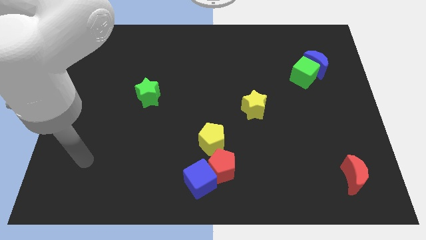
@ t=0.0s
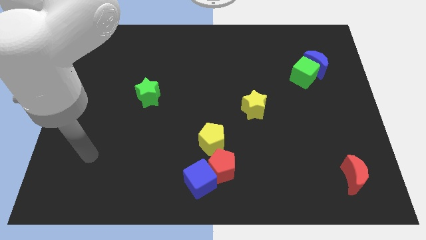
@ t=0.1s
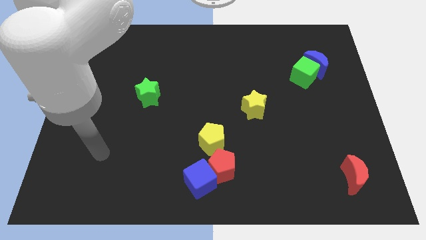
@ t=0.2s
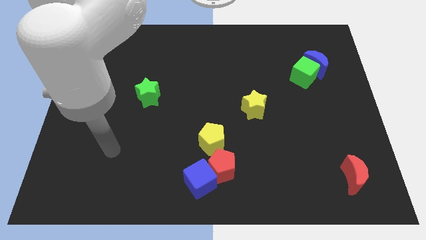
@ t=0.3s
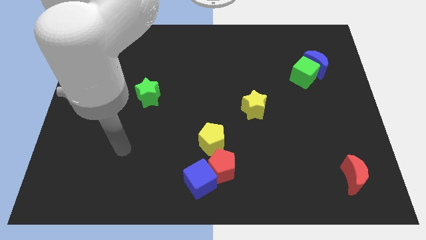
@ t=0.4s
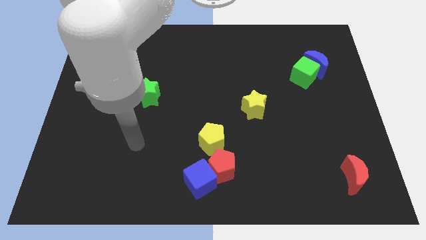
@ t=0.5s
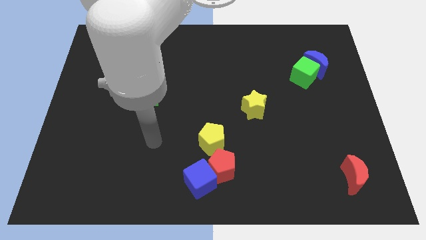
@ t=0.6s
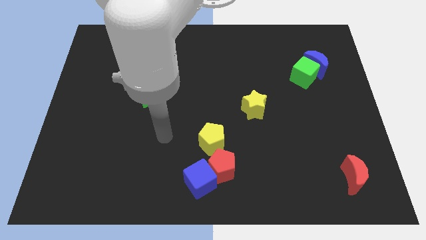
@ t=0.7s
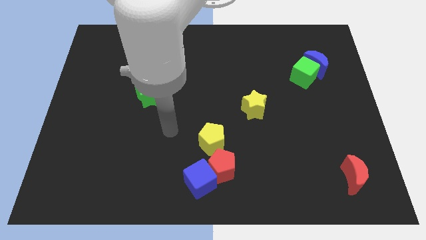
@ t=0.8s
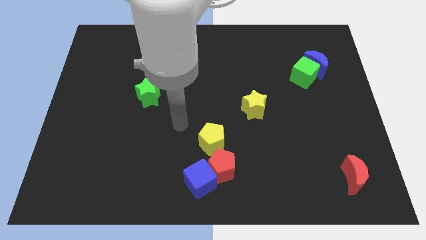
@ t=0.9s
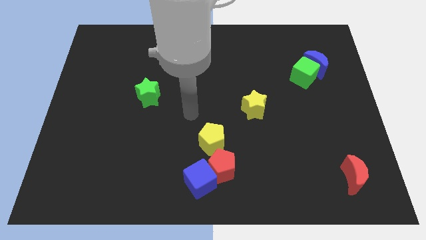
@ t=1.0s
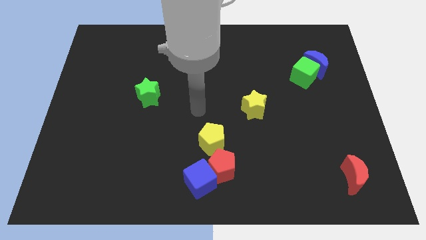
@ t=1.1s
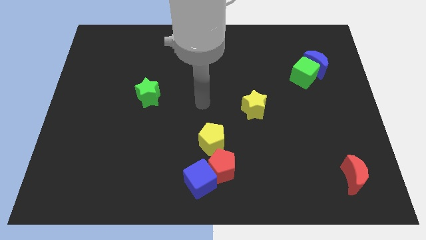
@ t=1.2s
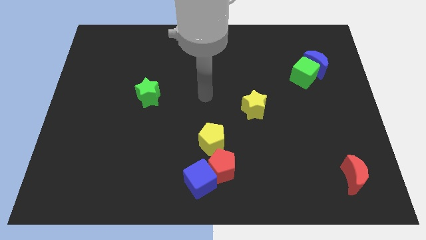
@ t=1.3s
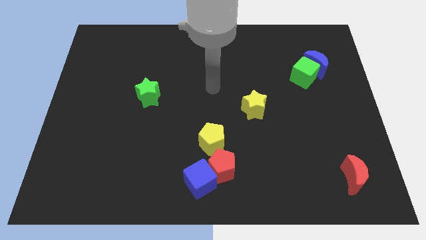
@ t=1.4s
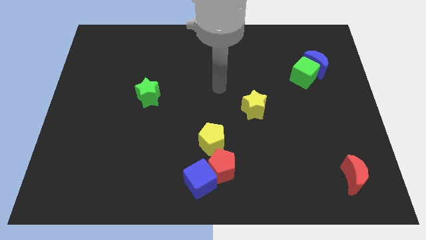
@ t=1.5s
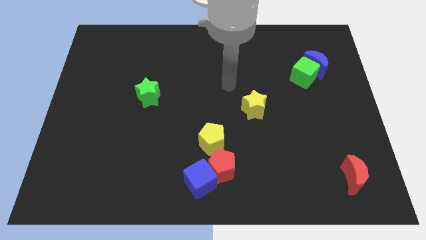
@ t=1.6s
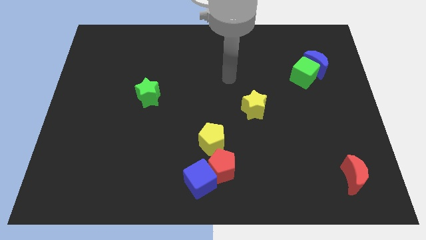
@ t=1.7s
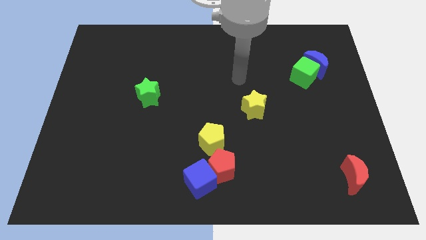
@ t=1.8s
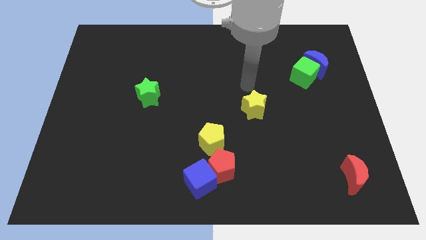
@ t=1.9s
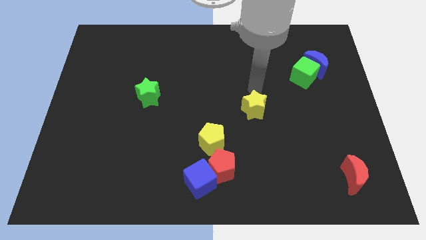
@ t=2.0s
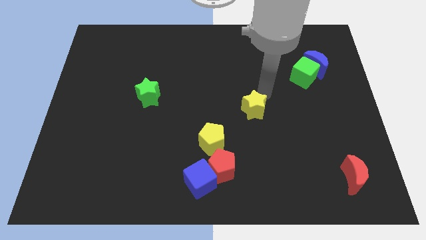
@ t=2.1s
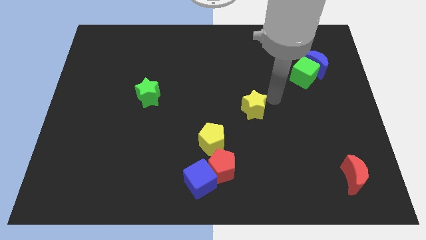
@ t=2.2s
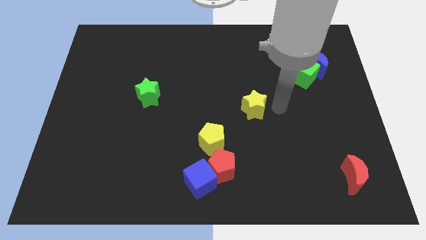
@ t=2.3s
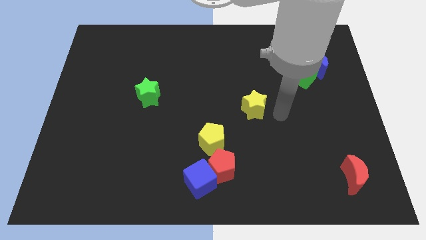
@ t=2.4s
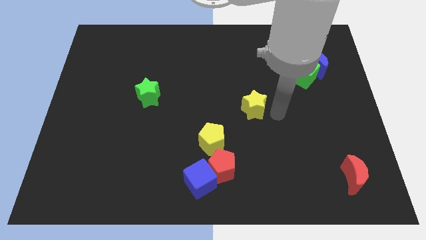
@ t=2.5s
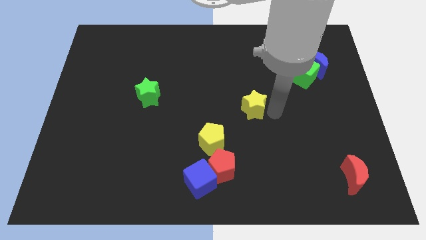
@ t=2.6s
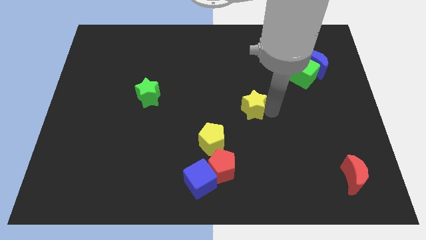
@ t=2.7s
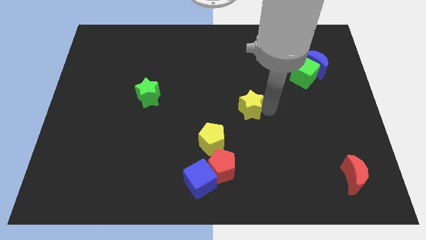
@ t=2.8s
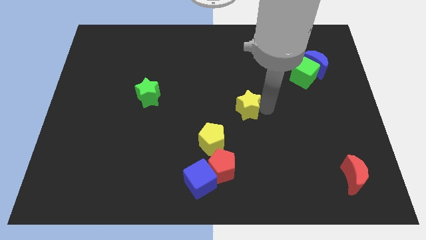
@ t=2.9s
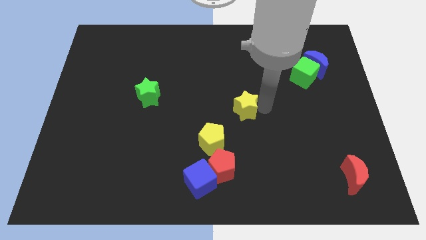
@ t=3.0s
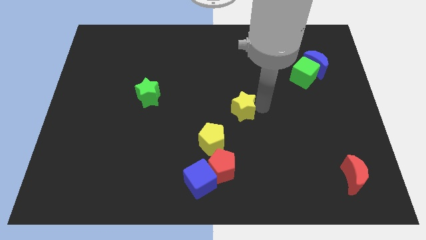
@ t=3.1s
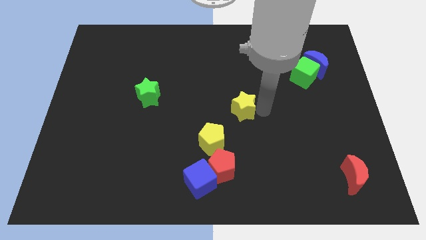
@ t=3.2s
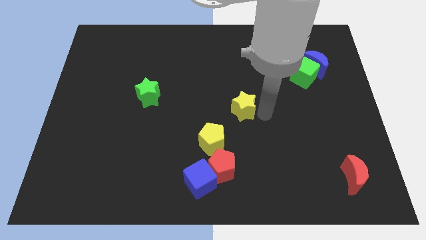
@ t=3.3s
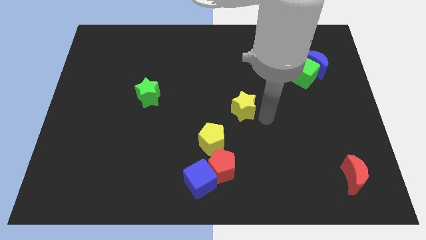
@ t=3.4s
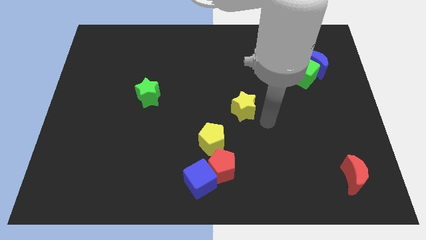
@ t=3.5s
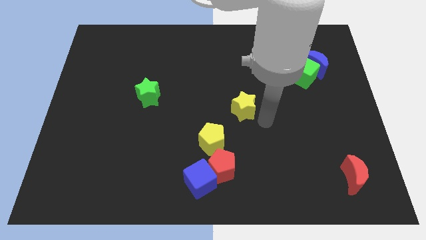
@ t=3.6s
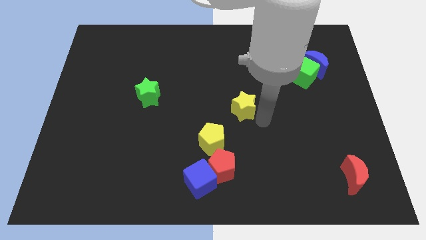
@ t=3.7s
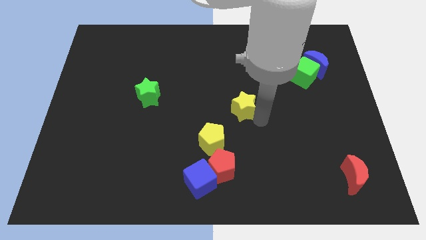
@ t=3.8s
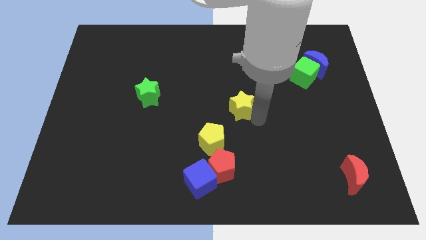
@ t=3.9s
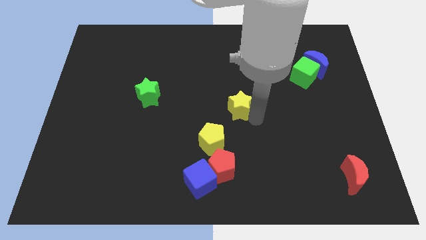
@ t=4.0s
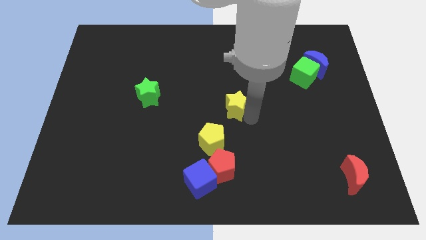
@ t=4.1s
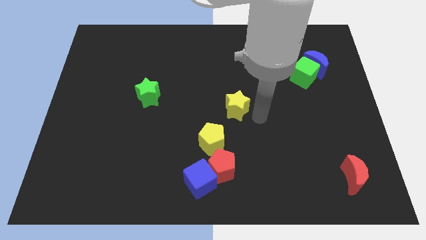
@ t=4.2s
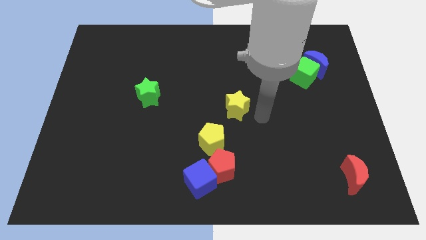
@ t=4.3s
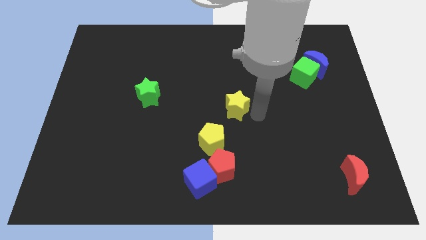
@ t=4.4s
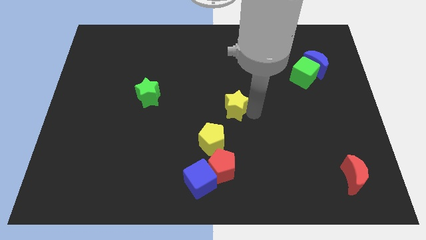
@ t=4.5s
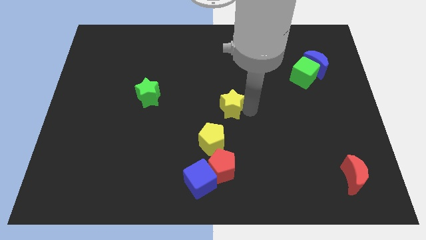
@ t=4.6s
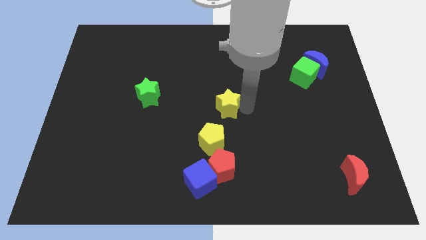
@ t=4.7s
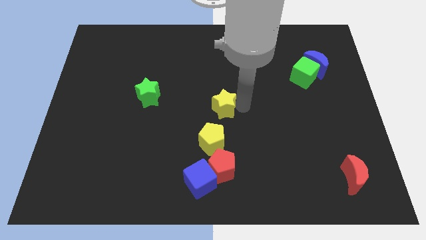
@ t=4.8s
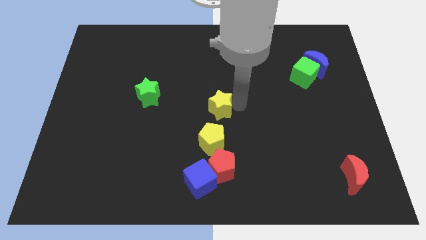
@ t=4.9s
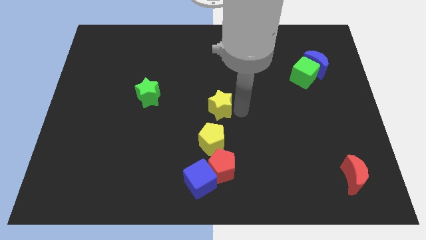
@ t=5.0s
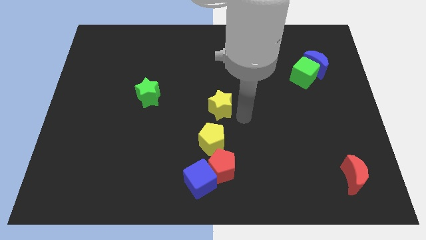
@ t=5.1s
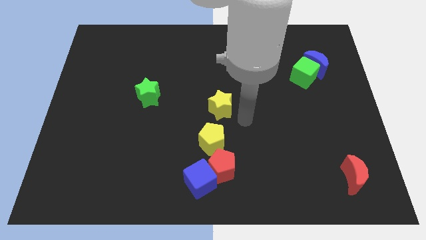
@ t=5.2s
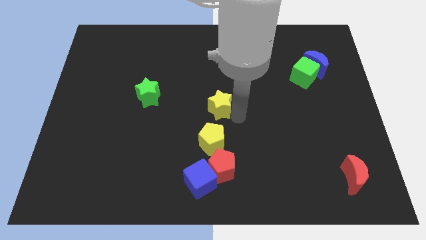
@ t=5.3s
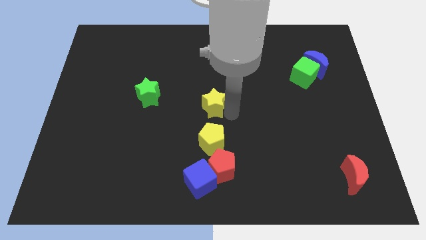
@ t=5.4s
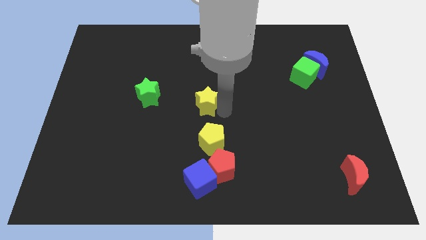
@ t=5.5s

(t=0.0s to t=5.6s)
move the yellow star right of the green star

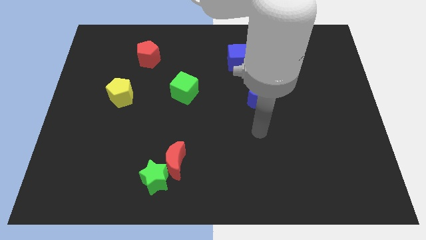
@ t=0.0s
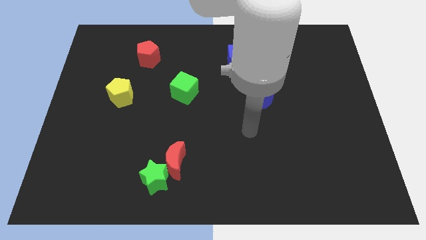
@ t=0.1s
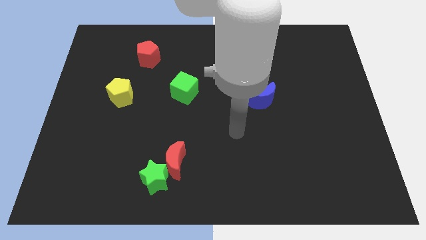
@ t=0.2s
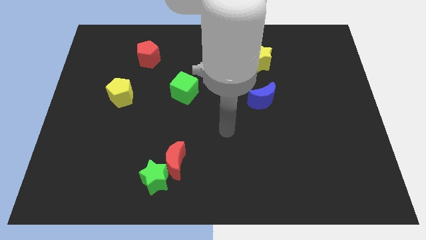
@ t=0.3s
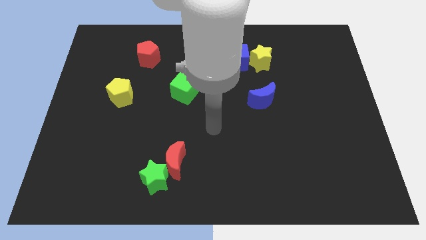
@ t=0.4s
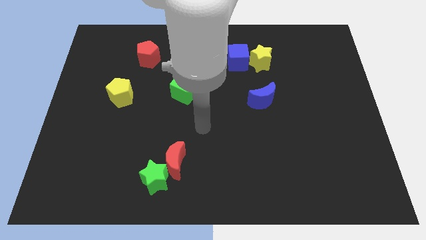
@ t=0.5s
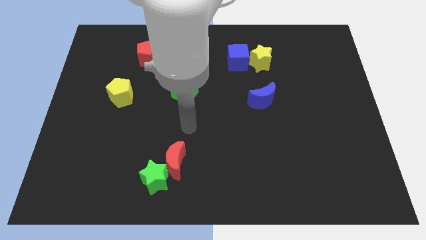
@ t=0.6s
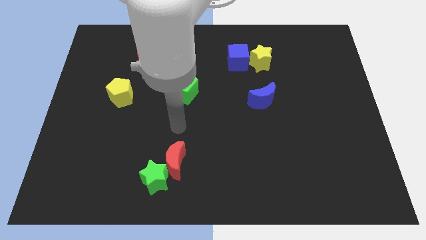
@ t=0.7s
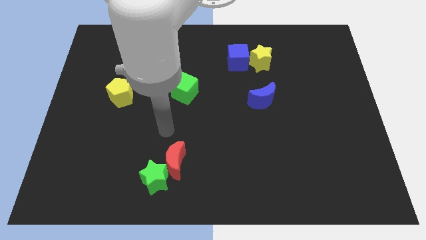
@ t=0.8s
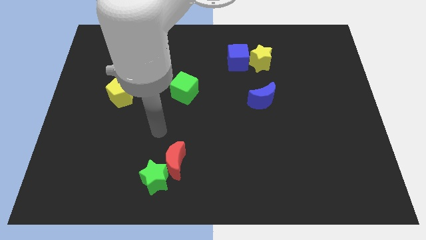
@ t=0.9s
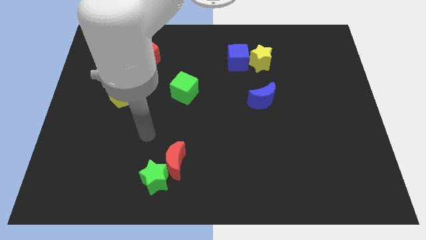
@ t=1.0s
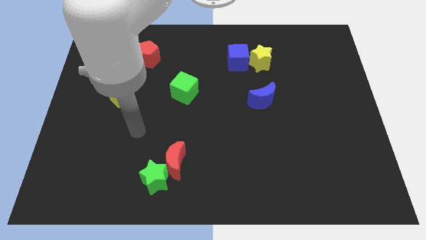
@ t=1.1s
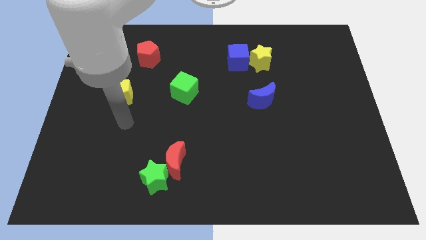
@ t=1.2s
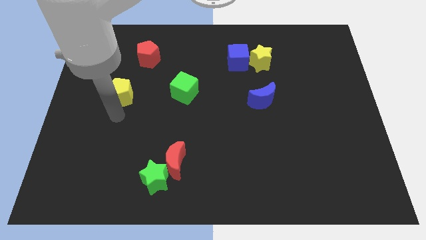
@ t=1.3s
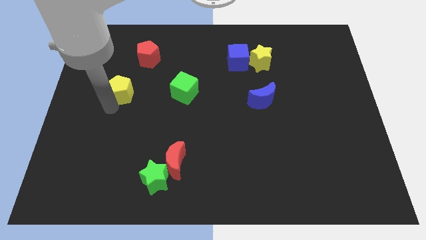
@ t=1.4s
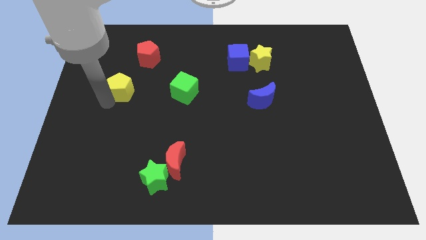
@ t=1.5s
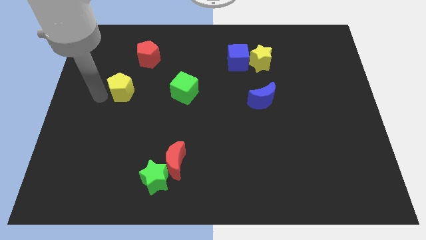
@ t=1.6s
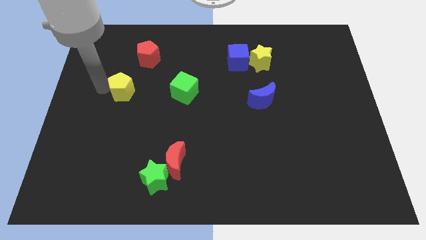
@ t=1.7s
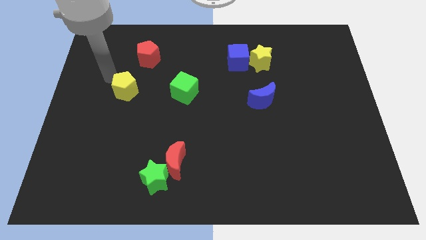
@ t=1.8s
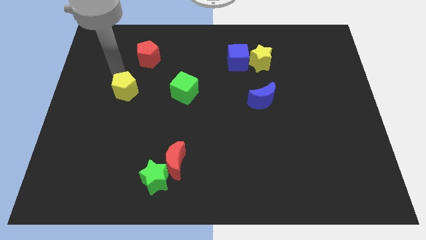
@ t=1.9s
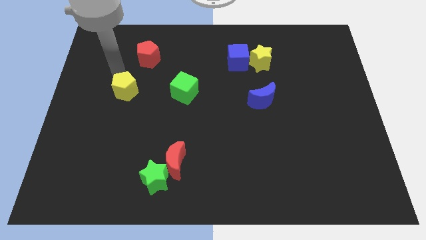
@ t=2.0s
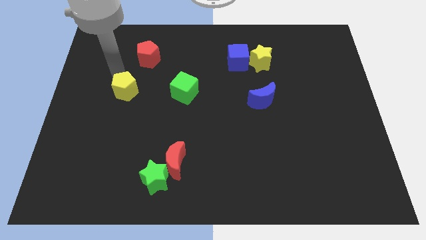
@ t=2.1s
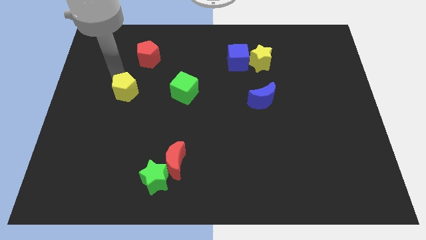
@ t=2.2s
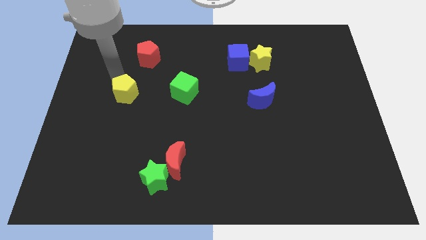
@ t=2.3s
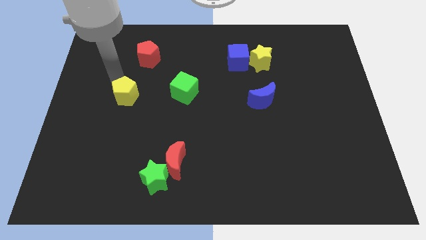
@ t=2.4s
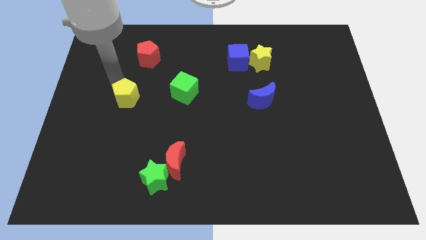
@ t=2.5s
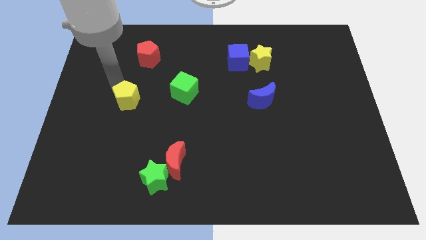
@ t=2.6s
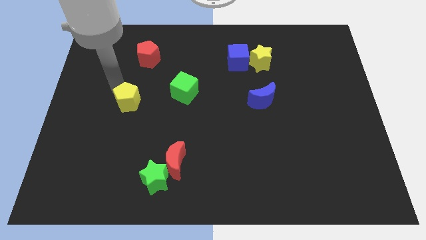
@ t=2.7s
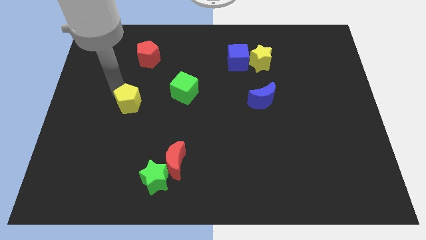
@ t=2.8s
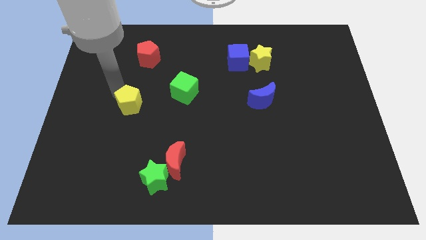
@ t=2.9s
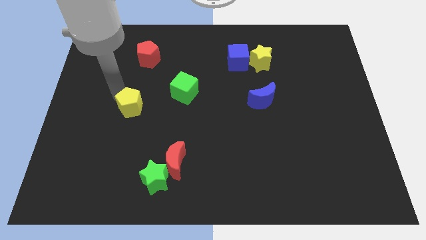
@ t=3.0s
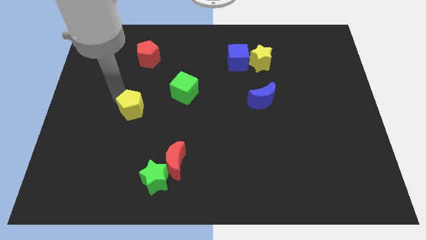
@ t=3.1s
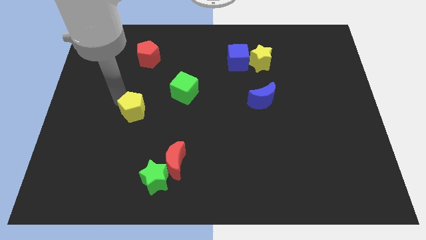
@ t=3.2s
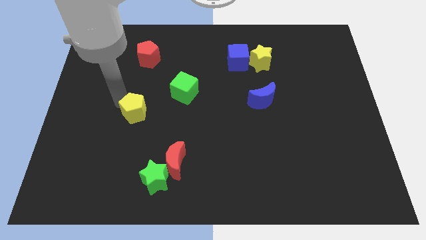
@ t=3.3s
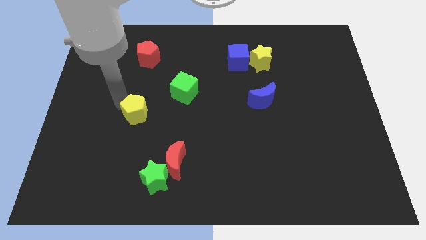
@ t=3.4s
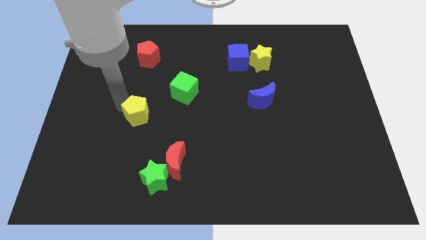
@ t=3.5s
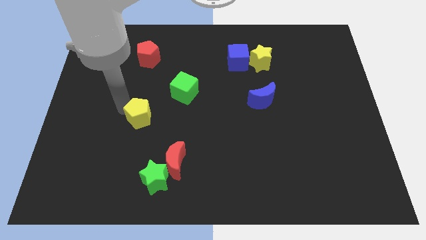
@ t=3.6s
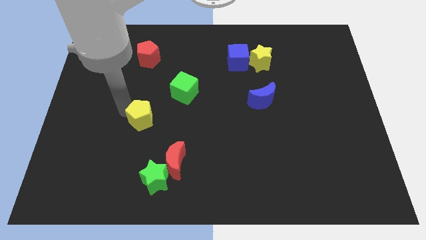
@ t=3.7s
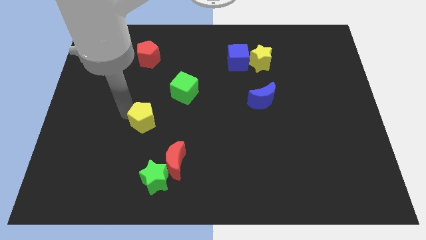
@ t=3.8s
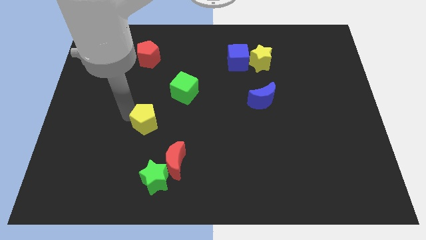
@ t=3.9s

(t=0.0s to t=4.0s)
push the yellow pentagon to the top of the green star
